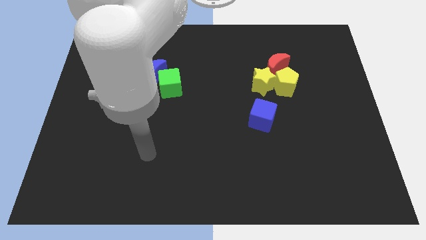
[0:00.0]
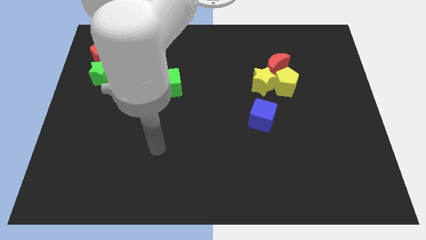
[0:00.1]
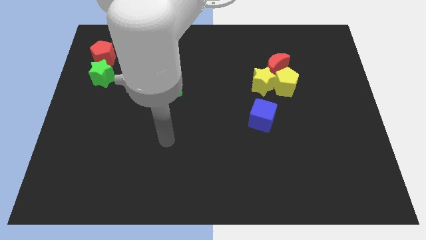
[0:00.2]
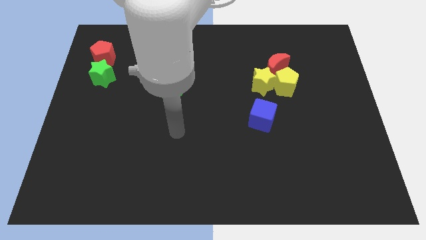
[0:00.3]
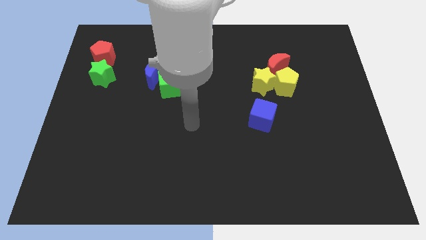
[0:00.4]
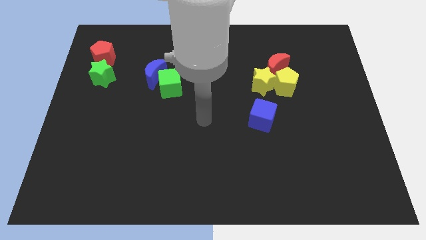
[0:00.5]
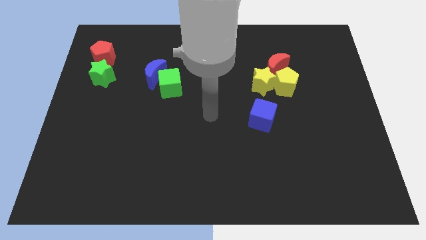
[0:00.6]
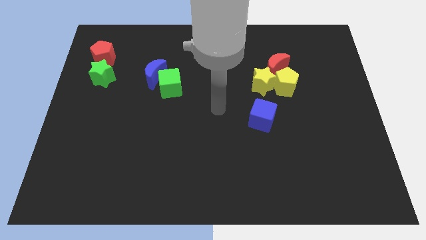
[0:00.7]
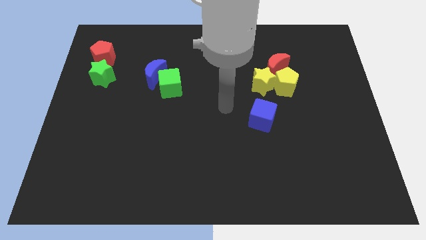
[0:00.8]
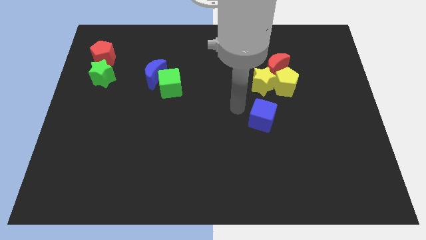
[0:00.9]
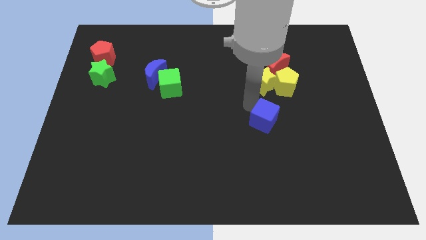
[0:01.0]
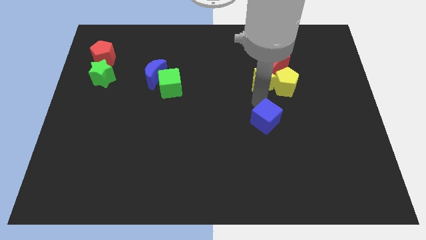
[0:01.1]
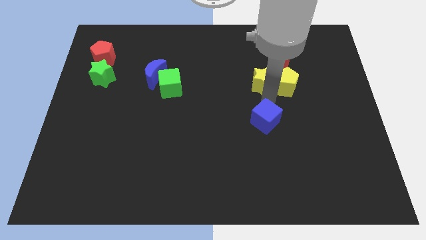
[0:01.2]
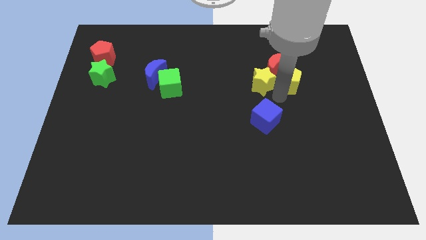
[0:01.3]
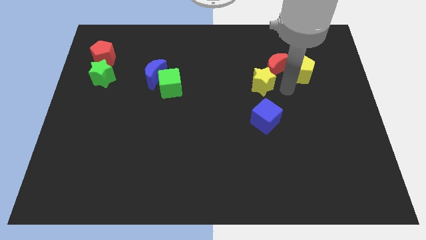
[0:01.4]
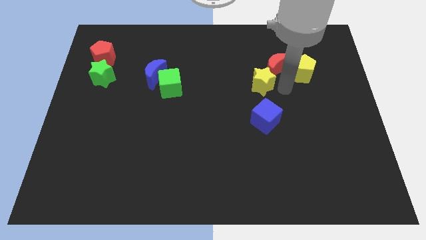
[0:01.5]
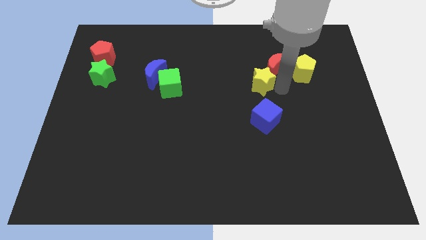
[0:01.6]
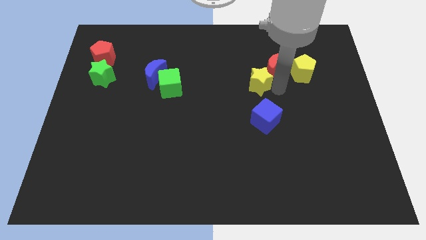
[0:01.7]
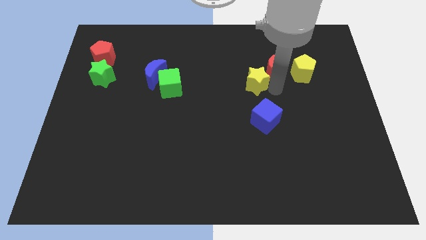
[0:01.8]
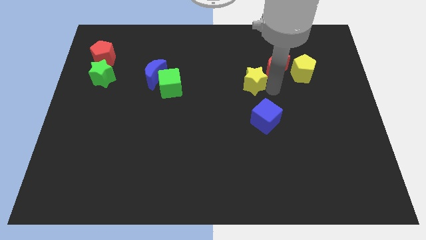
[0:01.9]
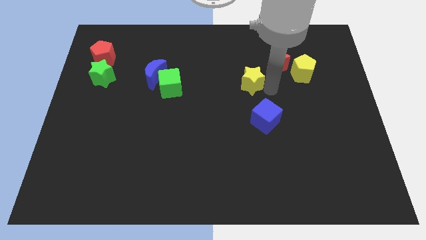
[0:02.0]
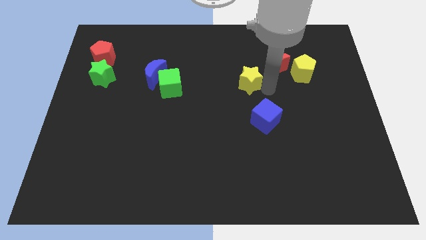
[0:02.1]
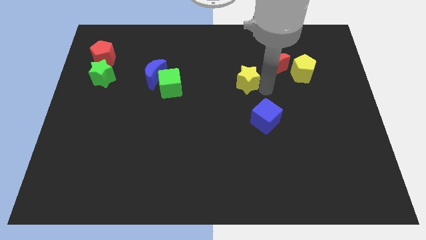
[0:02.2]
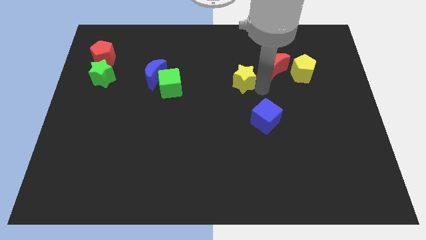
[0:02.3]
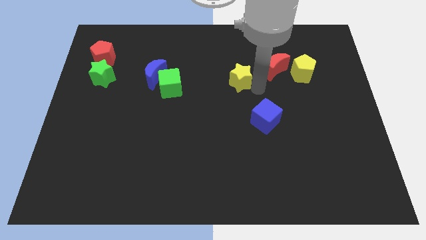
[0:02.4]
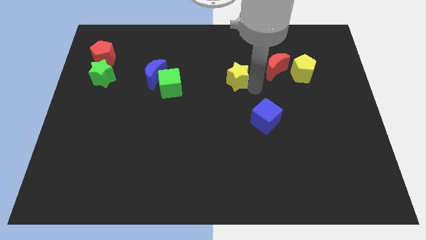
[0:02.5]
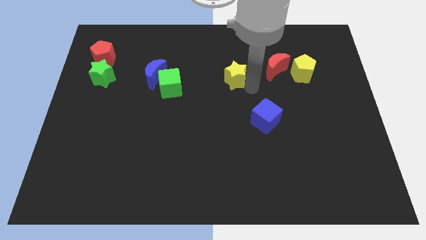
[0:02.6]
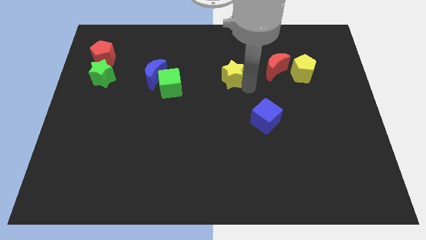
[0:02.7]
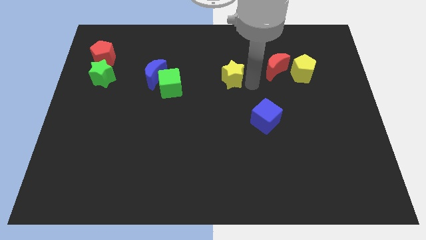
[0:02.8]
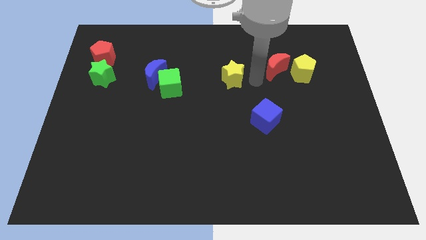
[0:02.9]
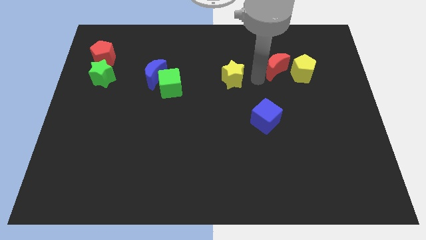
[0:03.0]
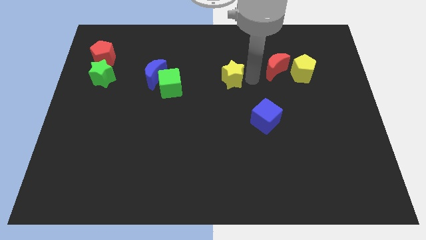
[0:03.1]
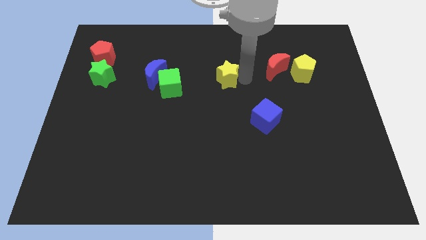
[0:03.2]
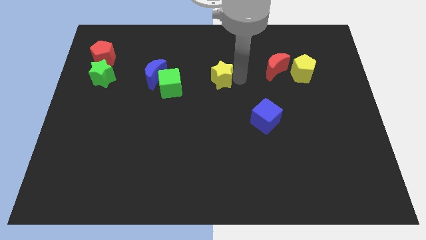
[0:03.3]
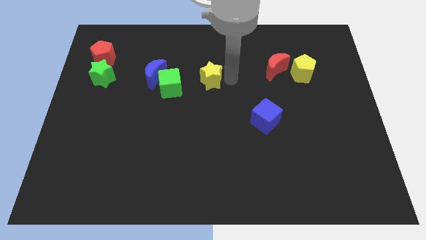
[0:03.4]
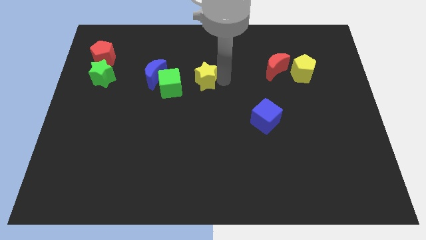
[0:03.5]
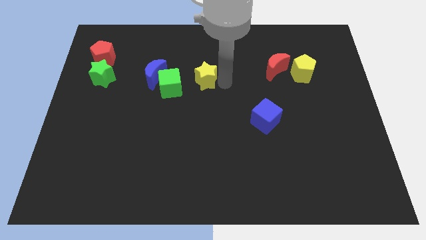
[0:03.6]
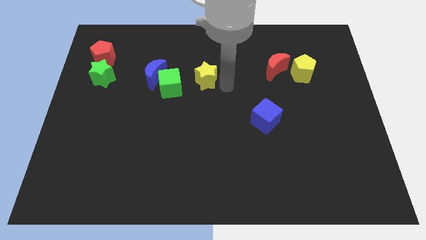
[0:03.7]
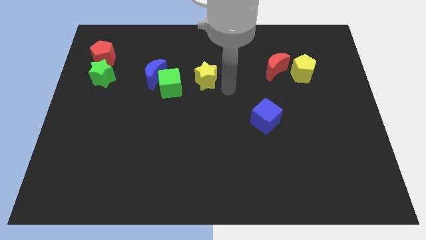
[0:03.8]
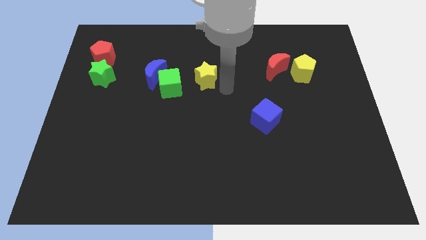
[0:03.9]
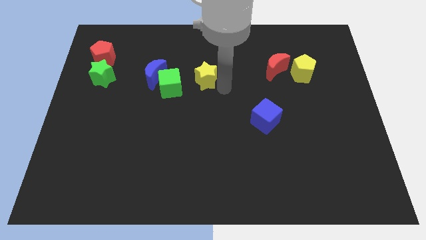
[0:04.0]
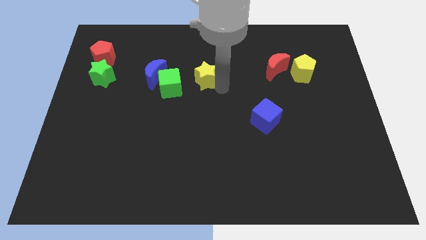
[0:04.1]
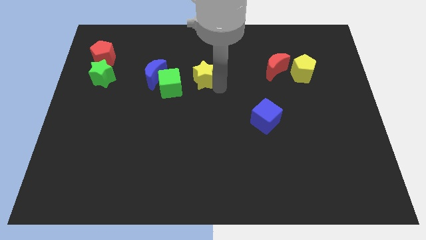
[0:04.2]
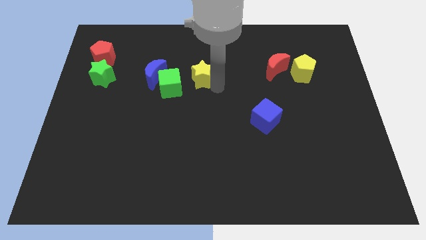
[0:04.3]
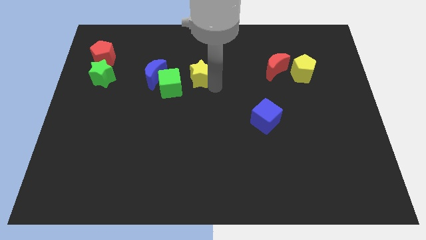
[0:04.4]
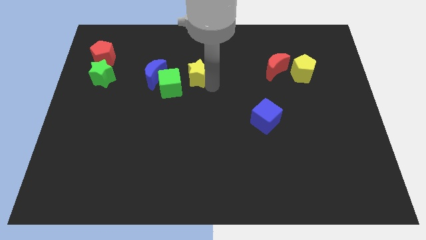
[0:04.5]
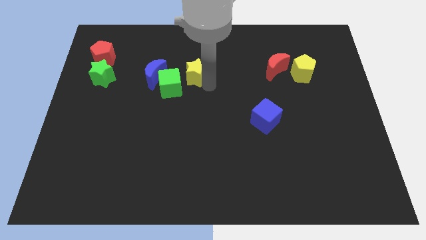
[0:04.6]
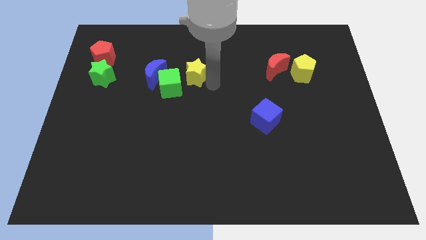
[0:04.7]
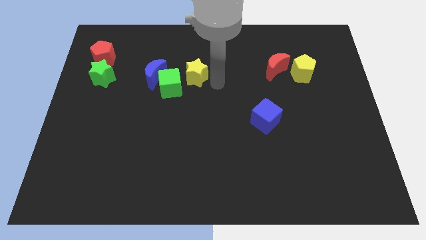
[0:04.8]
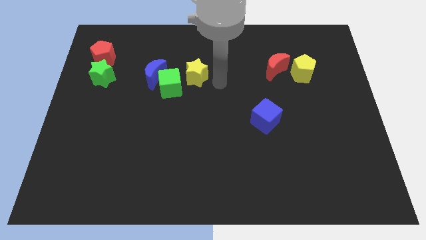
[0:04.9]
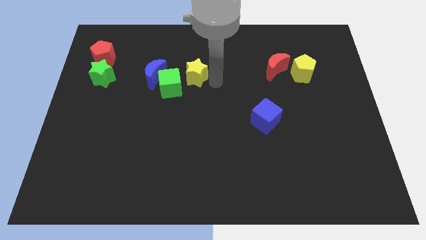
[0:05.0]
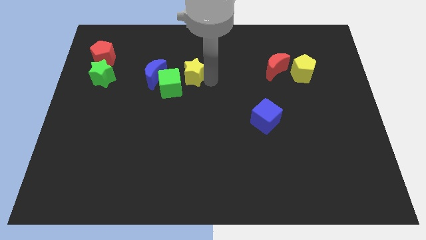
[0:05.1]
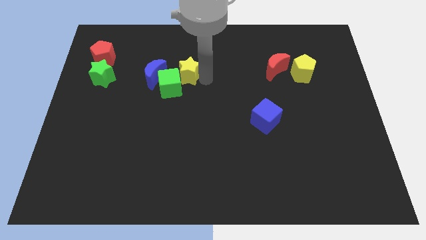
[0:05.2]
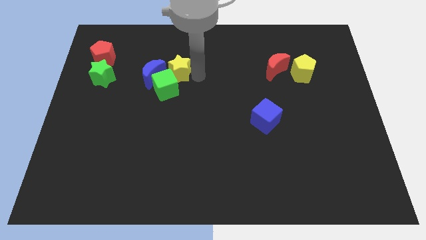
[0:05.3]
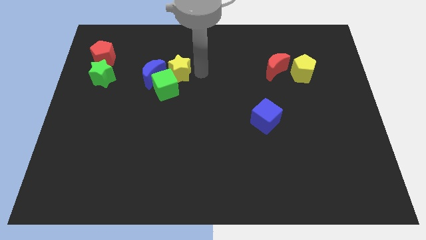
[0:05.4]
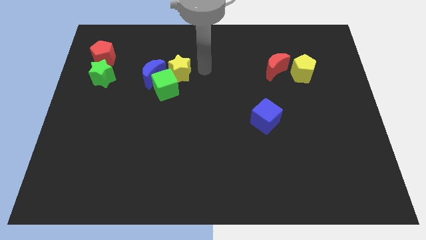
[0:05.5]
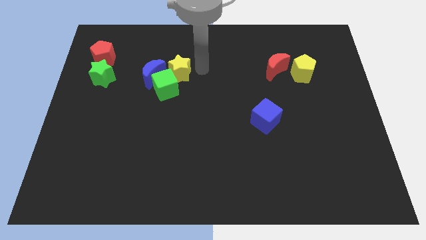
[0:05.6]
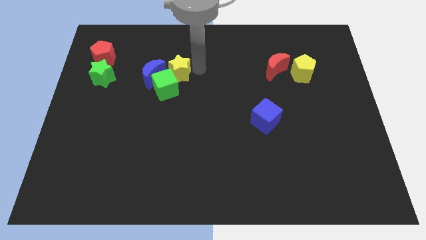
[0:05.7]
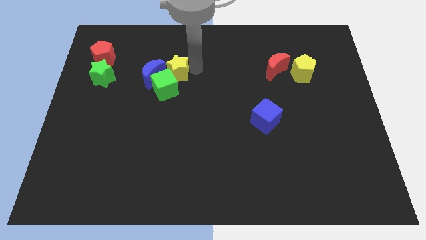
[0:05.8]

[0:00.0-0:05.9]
put the yellow star next to the blue moon

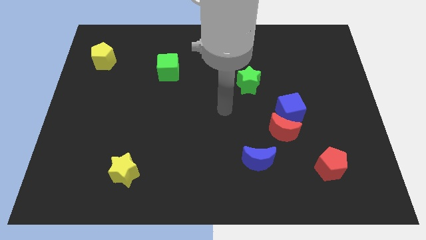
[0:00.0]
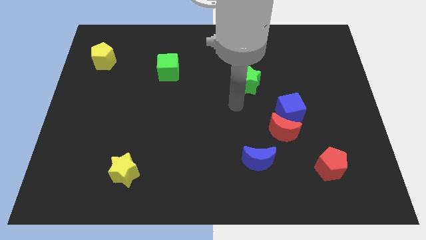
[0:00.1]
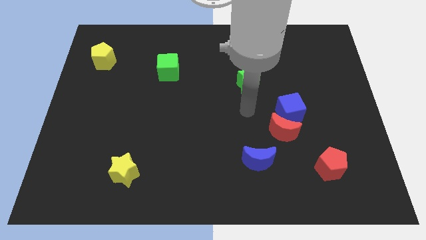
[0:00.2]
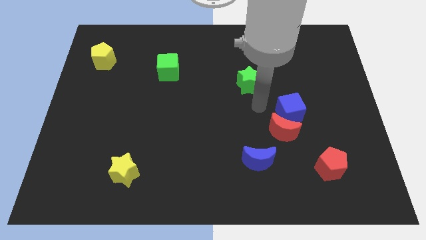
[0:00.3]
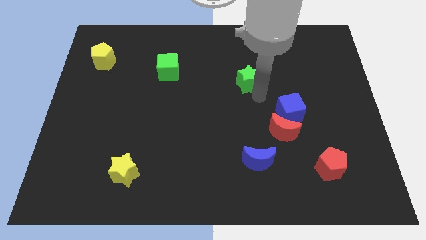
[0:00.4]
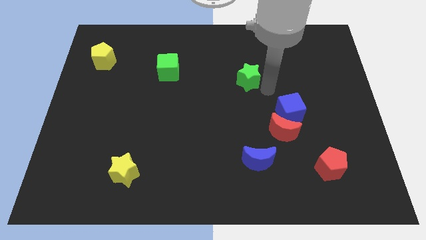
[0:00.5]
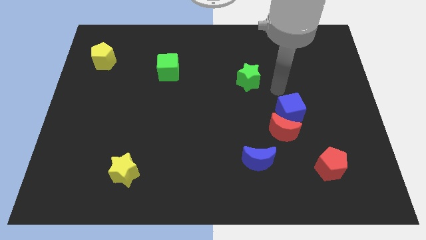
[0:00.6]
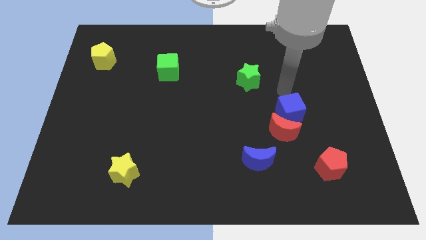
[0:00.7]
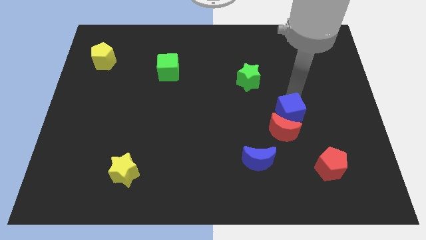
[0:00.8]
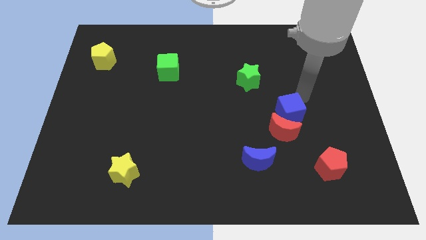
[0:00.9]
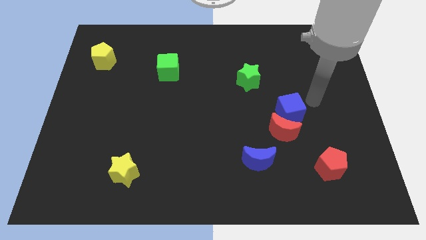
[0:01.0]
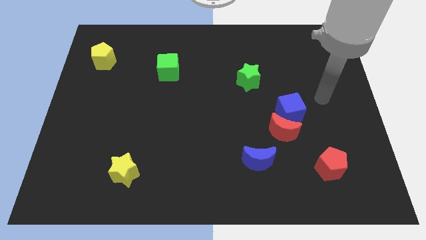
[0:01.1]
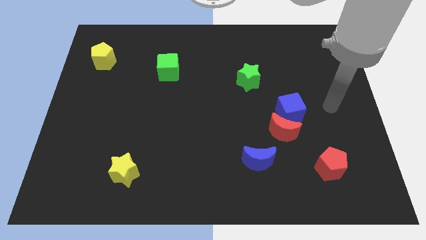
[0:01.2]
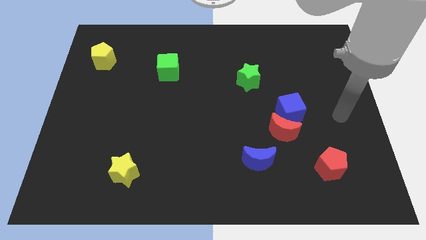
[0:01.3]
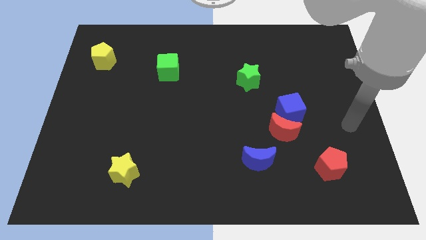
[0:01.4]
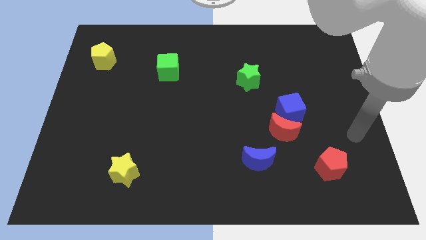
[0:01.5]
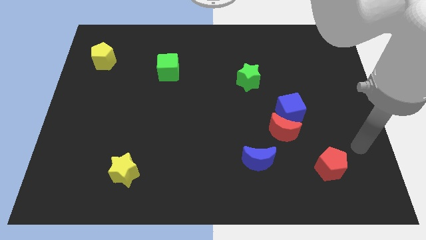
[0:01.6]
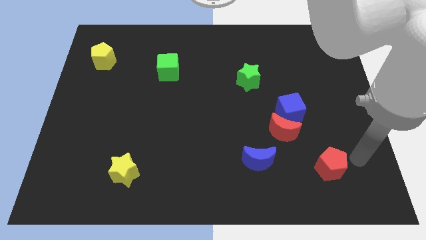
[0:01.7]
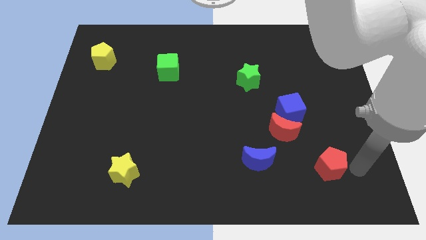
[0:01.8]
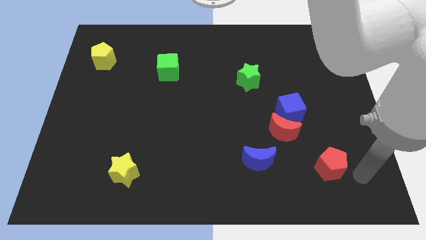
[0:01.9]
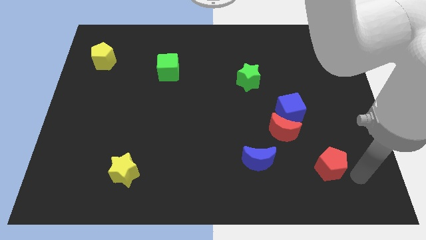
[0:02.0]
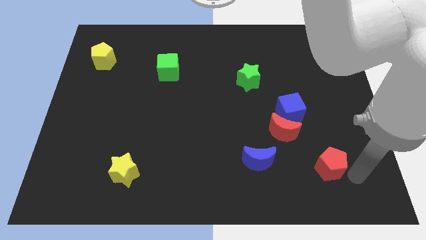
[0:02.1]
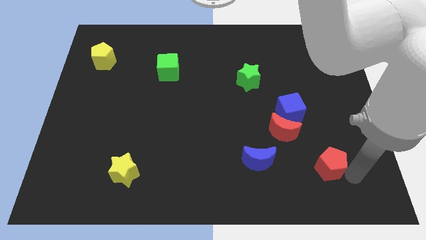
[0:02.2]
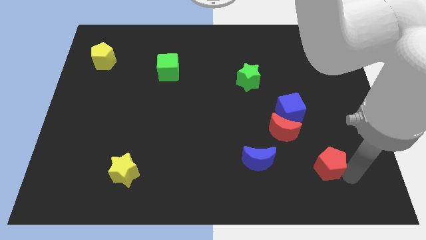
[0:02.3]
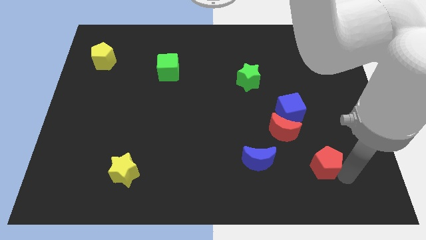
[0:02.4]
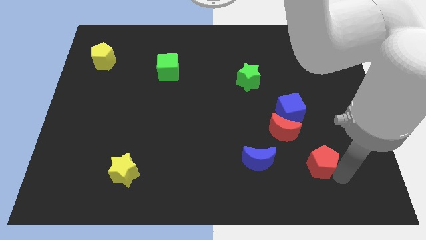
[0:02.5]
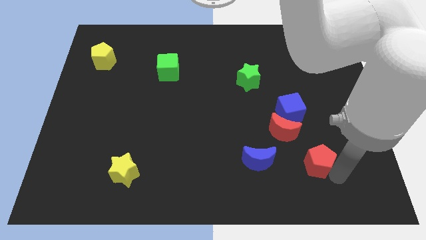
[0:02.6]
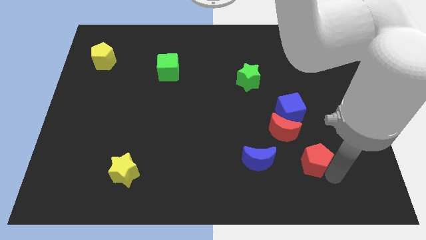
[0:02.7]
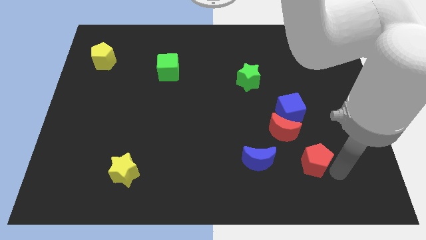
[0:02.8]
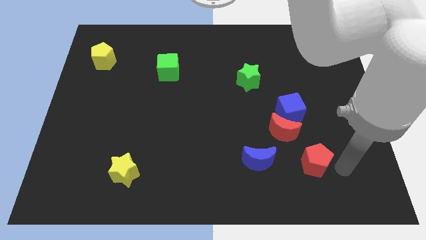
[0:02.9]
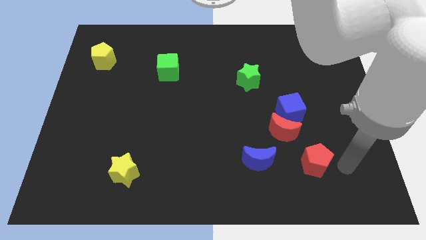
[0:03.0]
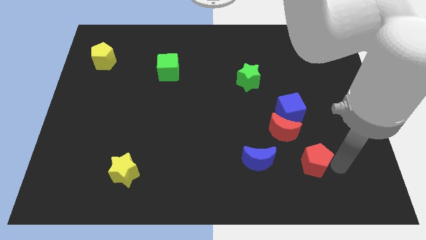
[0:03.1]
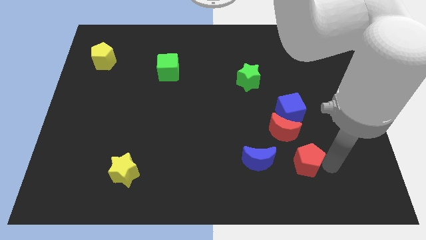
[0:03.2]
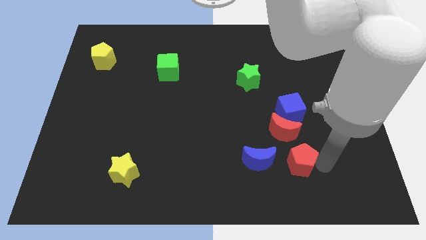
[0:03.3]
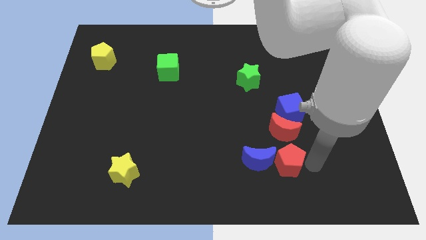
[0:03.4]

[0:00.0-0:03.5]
put the red pentagon next to the blue moon
